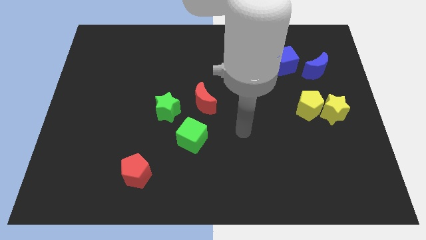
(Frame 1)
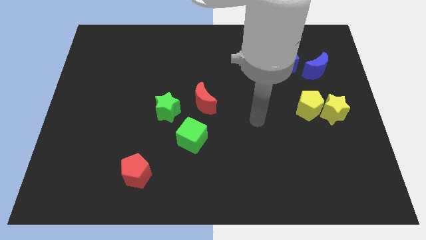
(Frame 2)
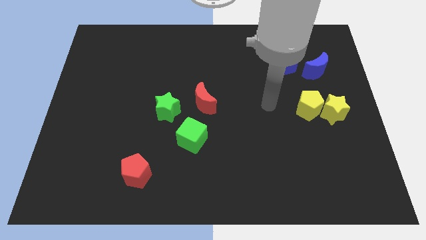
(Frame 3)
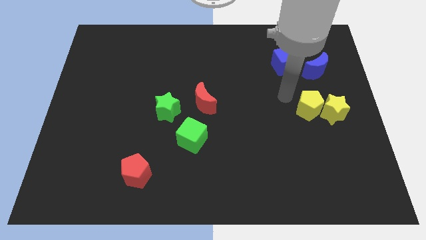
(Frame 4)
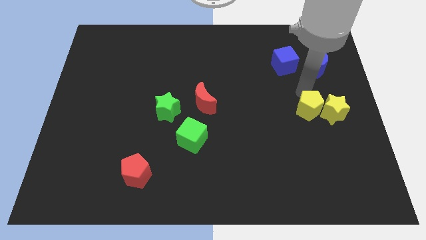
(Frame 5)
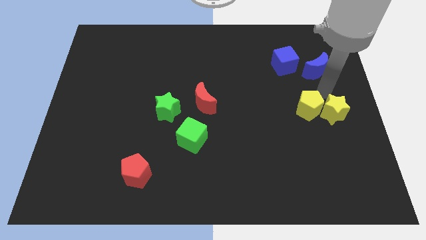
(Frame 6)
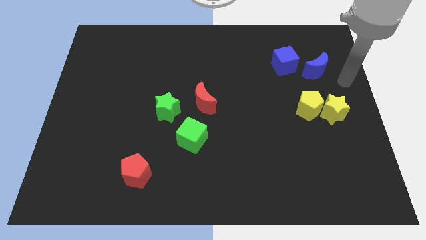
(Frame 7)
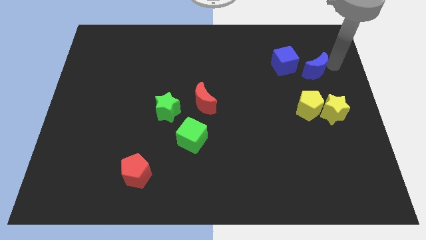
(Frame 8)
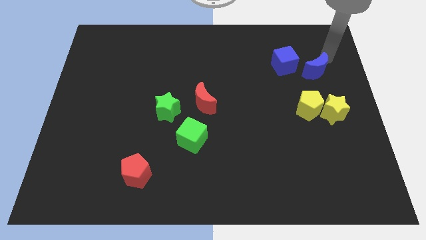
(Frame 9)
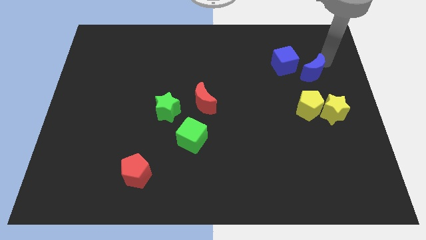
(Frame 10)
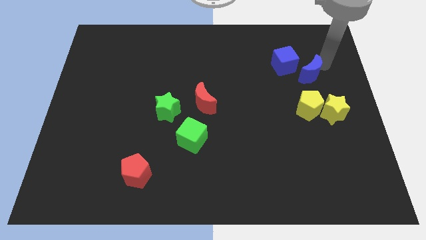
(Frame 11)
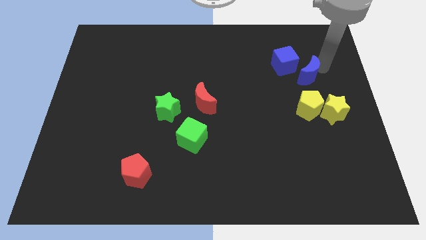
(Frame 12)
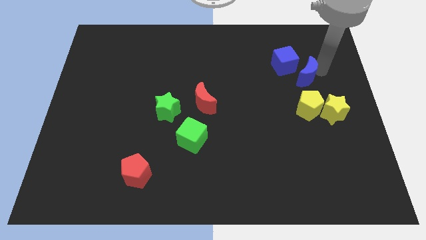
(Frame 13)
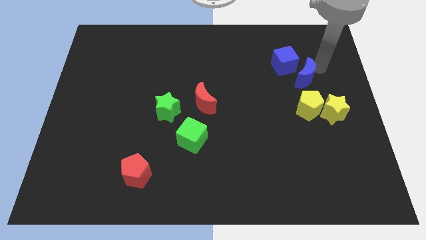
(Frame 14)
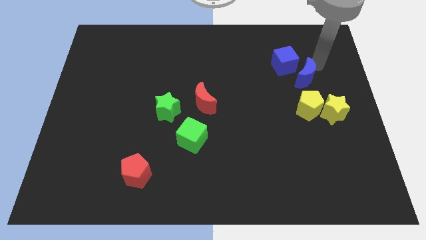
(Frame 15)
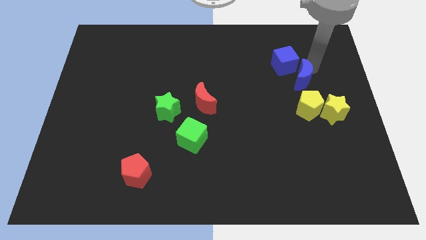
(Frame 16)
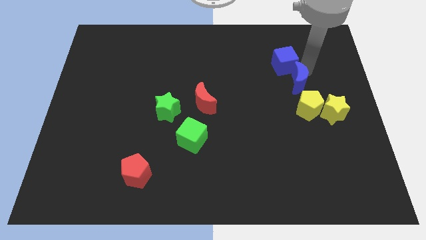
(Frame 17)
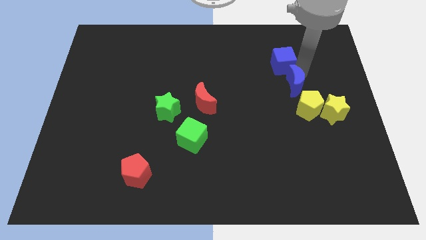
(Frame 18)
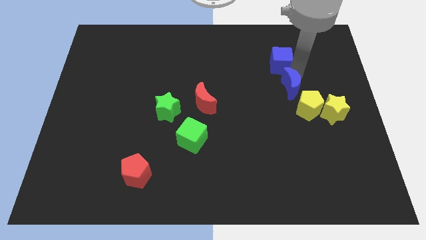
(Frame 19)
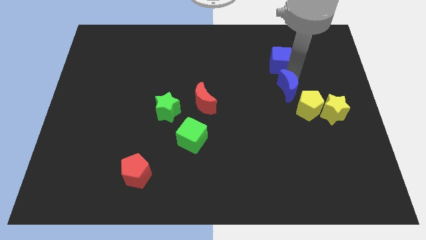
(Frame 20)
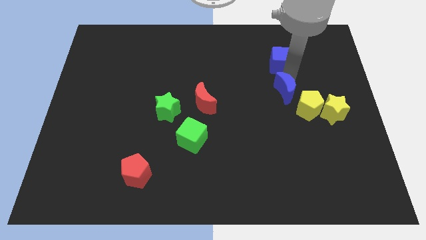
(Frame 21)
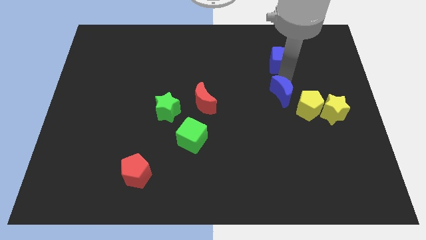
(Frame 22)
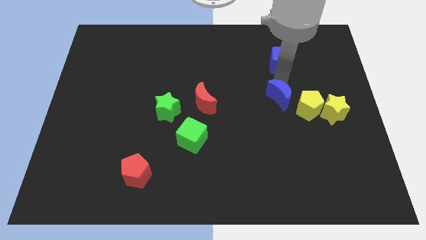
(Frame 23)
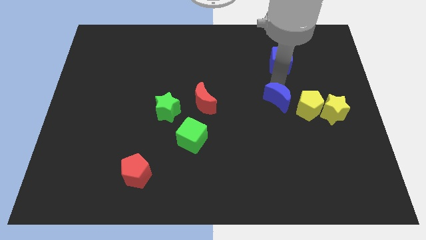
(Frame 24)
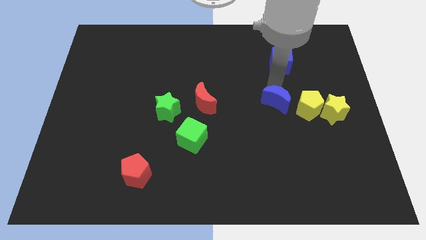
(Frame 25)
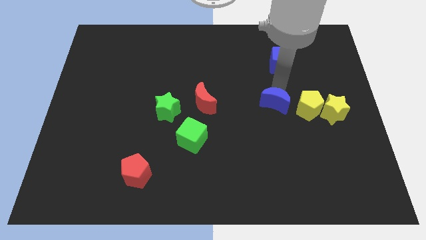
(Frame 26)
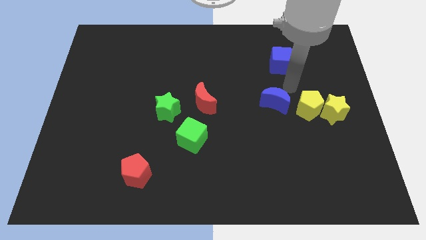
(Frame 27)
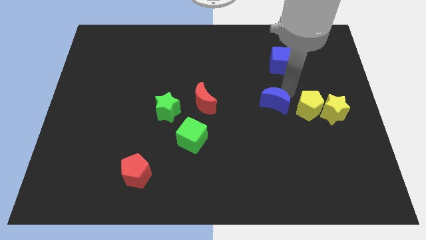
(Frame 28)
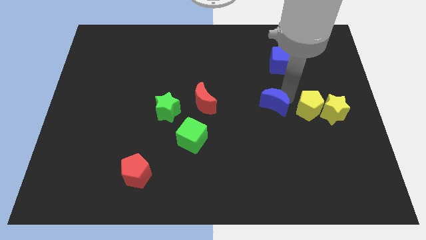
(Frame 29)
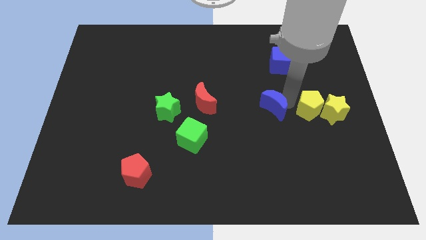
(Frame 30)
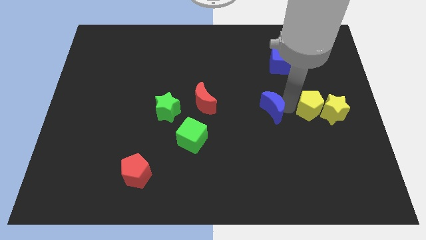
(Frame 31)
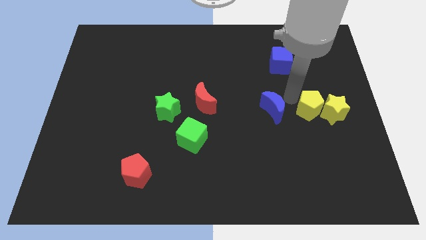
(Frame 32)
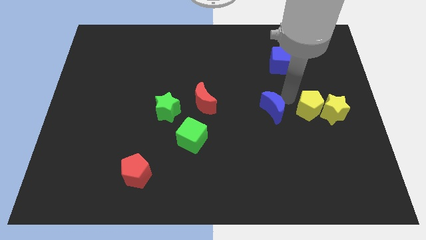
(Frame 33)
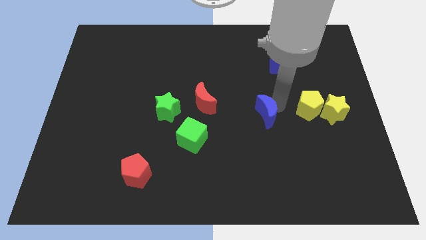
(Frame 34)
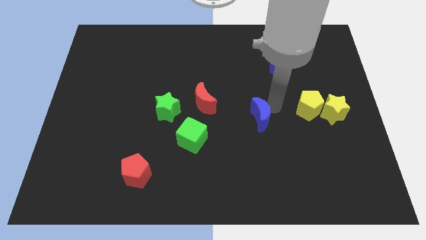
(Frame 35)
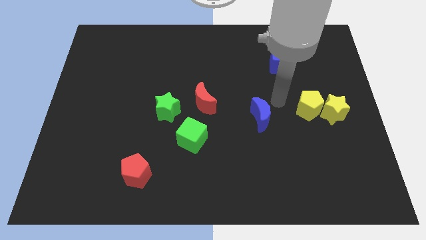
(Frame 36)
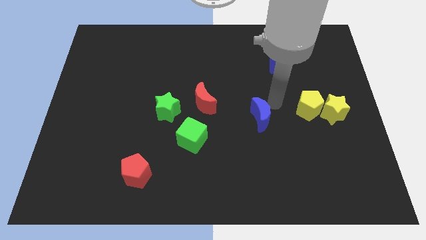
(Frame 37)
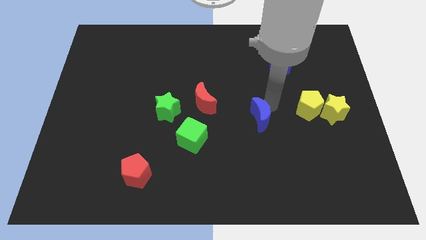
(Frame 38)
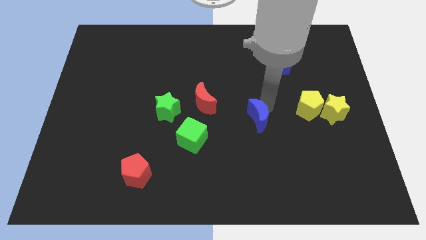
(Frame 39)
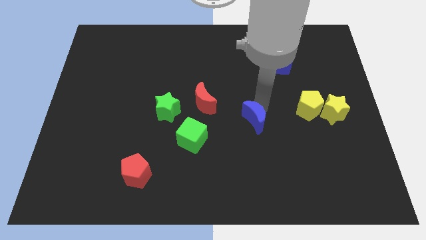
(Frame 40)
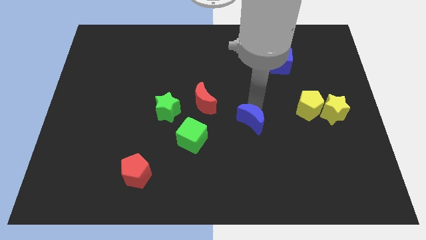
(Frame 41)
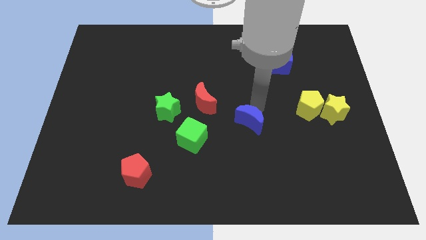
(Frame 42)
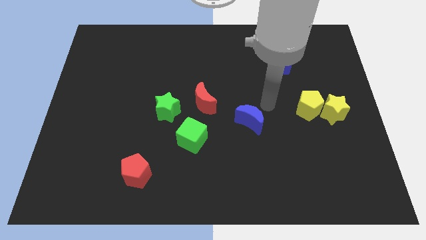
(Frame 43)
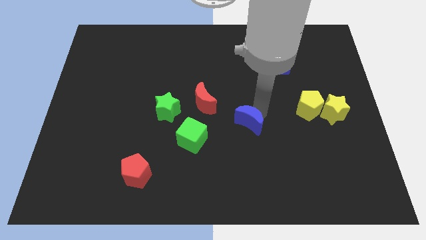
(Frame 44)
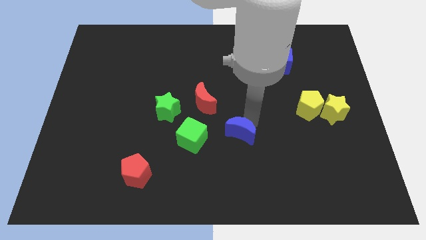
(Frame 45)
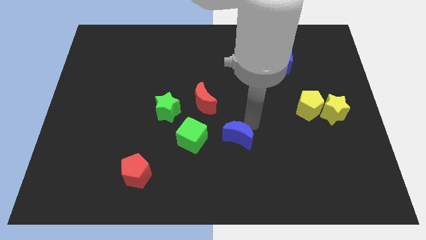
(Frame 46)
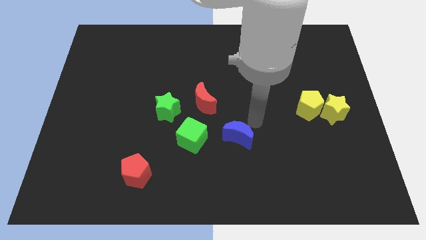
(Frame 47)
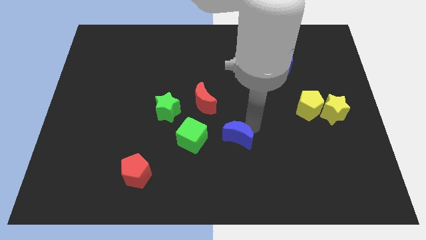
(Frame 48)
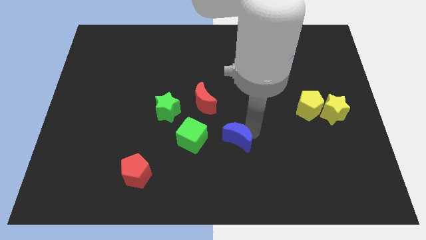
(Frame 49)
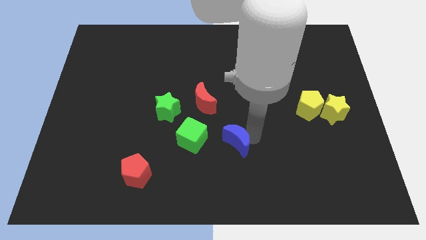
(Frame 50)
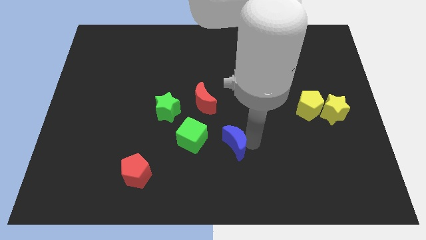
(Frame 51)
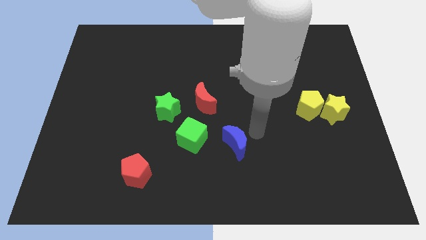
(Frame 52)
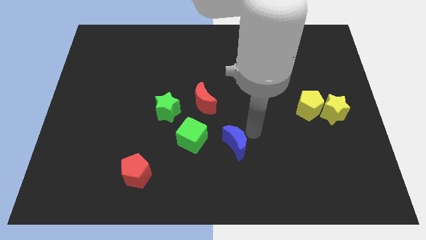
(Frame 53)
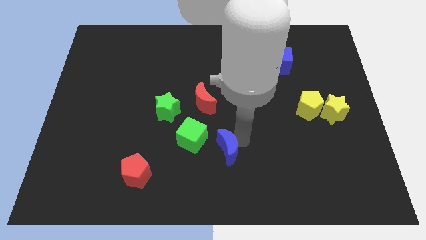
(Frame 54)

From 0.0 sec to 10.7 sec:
slide the blue moon to the bottom right side of the green cube

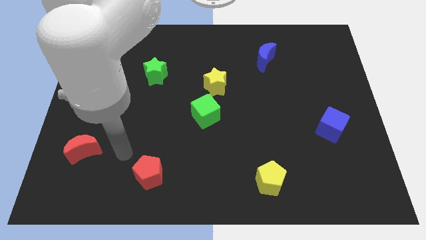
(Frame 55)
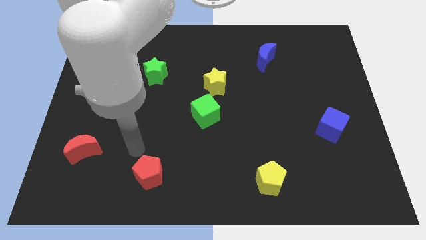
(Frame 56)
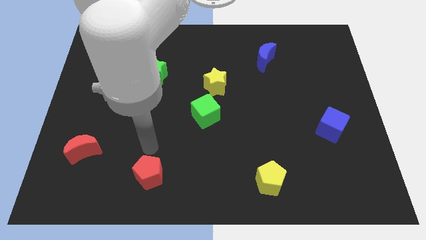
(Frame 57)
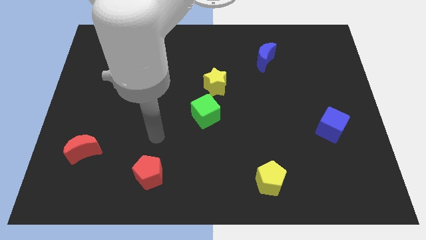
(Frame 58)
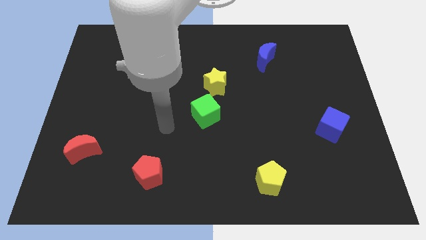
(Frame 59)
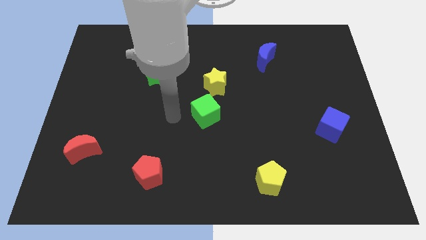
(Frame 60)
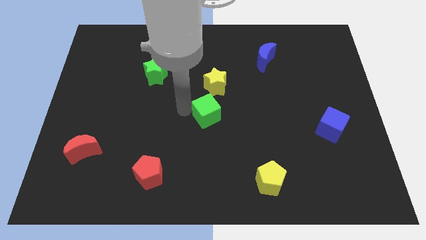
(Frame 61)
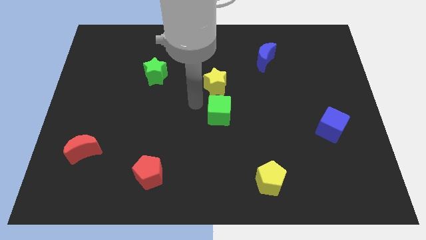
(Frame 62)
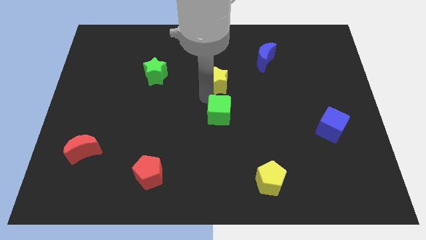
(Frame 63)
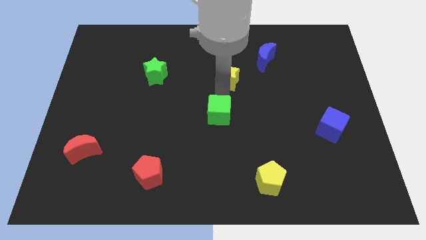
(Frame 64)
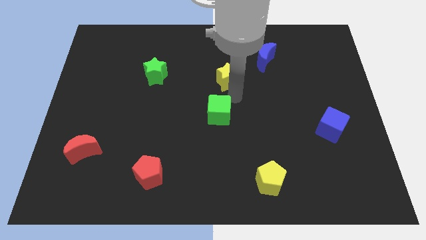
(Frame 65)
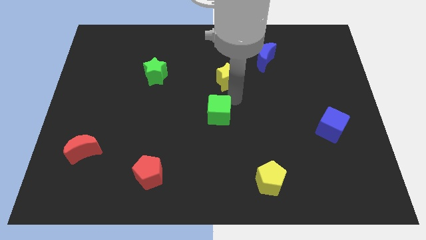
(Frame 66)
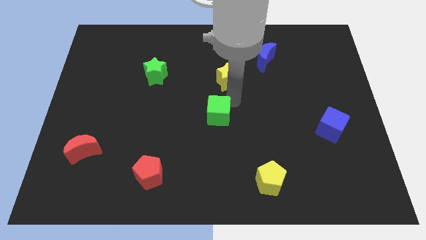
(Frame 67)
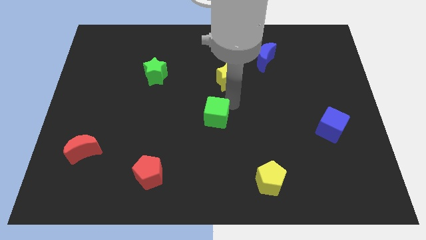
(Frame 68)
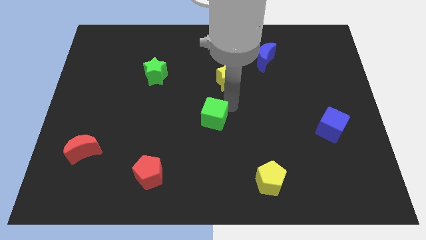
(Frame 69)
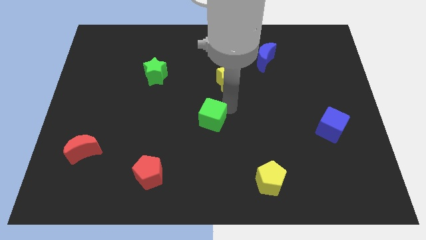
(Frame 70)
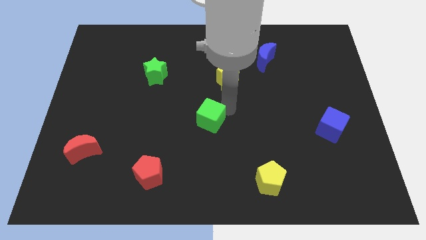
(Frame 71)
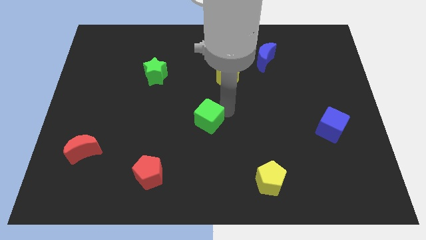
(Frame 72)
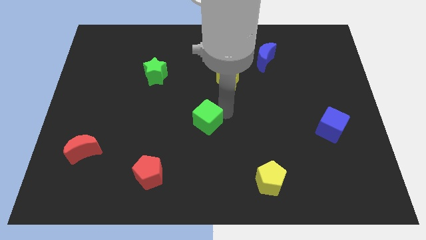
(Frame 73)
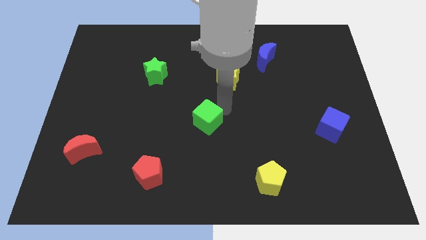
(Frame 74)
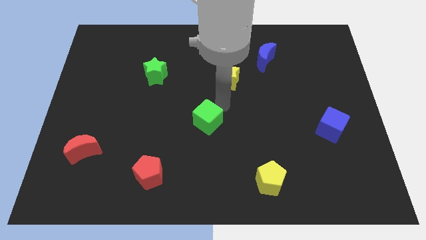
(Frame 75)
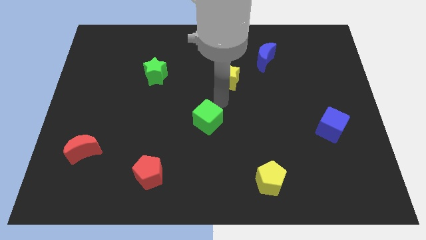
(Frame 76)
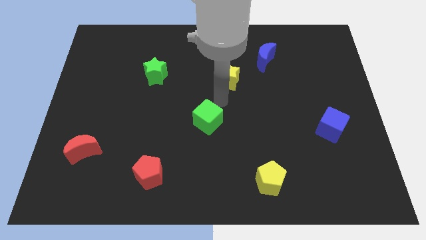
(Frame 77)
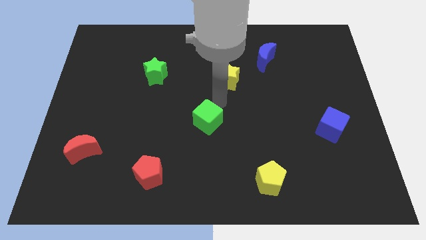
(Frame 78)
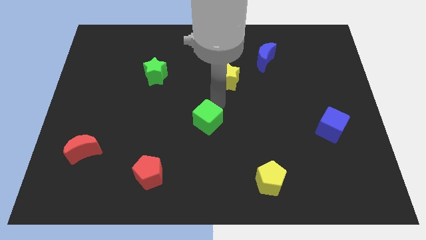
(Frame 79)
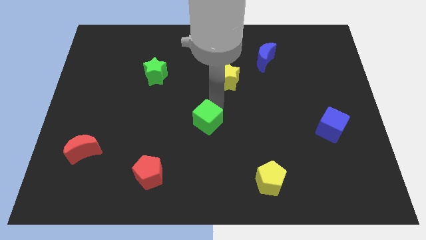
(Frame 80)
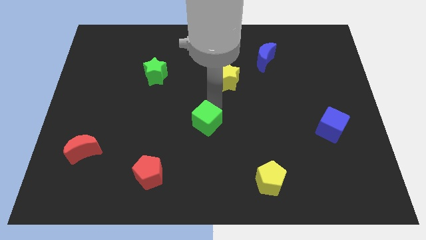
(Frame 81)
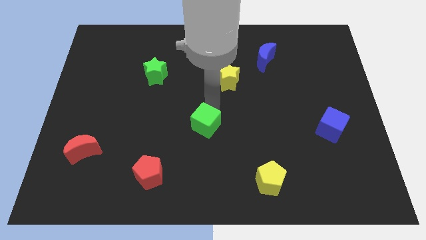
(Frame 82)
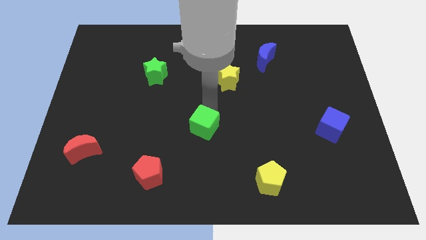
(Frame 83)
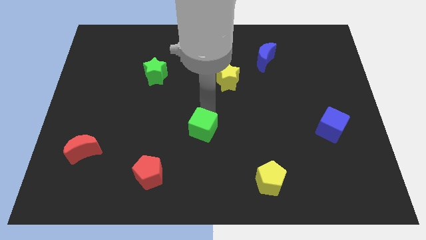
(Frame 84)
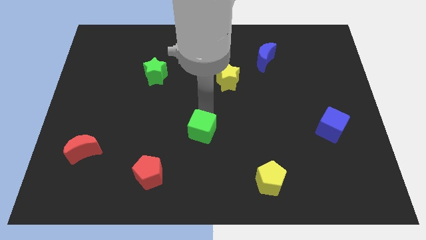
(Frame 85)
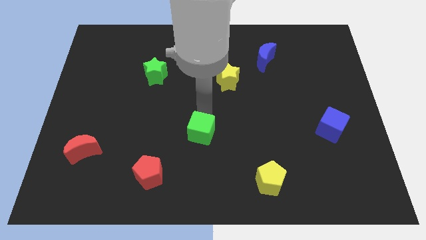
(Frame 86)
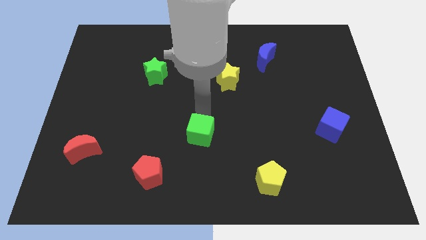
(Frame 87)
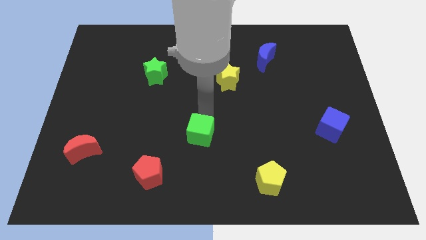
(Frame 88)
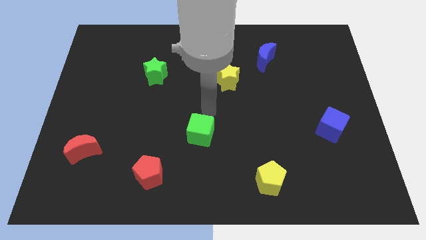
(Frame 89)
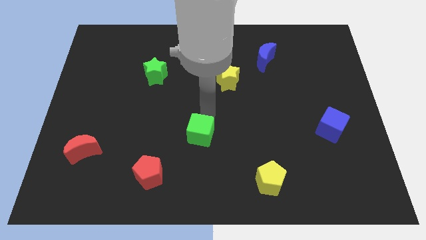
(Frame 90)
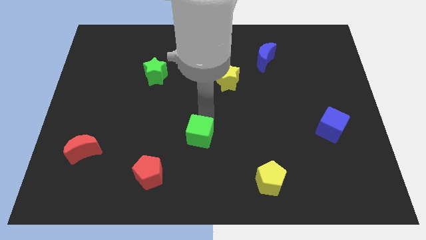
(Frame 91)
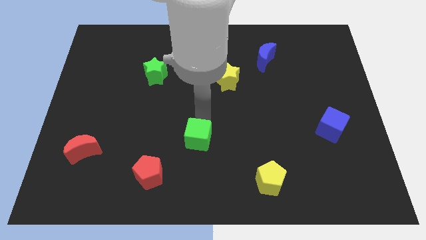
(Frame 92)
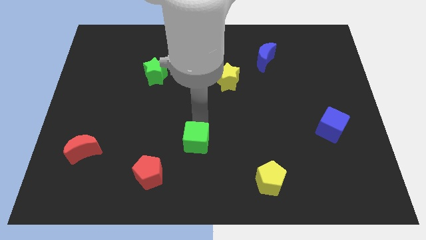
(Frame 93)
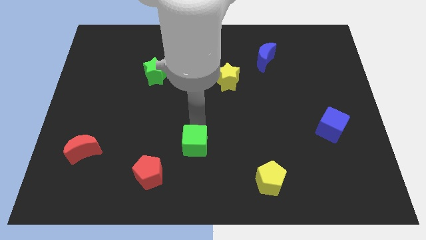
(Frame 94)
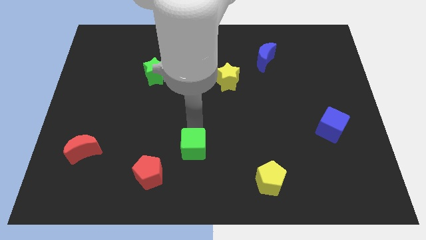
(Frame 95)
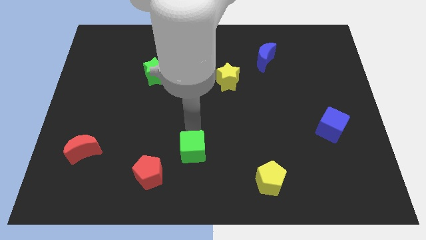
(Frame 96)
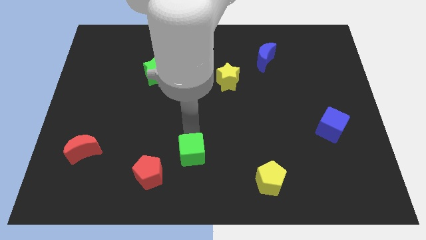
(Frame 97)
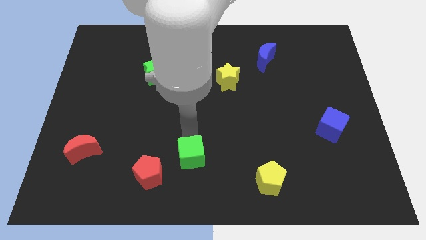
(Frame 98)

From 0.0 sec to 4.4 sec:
push the green cube just right of the red pentagon
